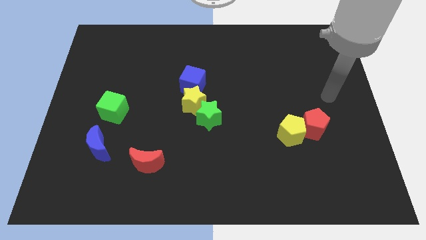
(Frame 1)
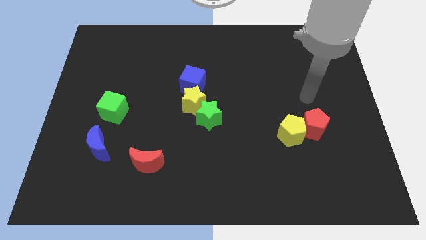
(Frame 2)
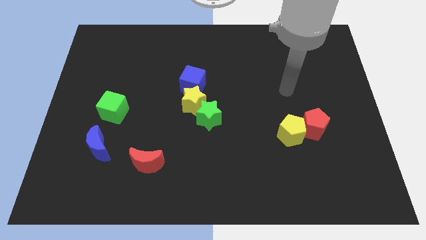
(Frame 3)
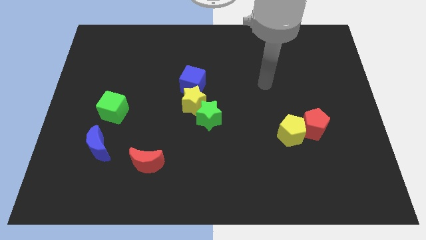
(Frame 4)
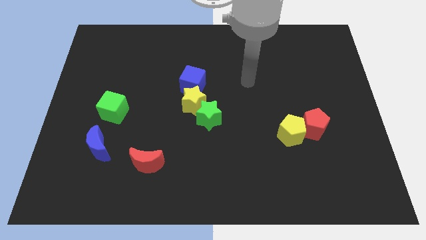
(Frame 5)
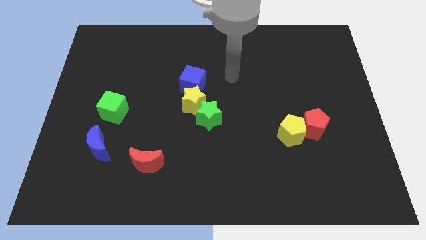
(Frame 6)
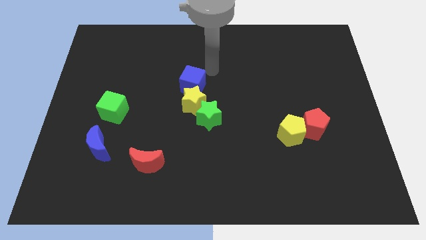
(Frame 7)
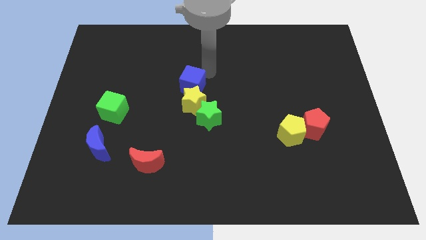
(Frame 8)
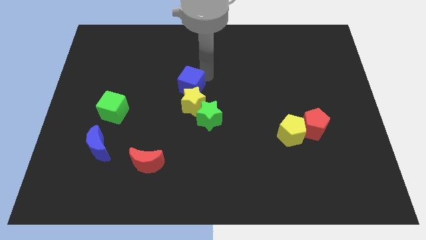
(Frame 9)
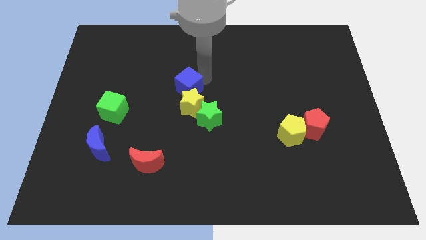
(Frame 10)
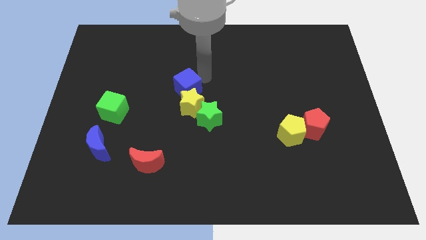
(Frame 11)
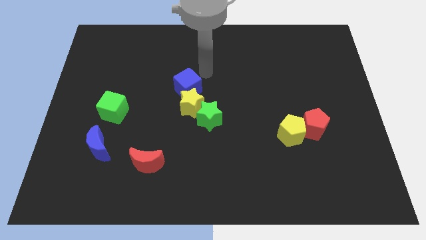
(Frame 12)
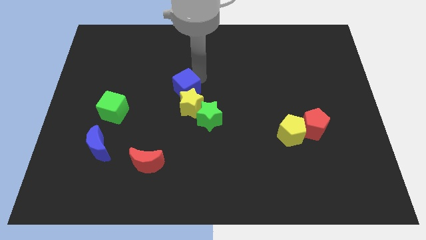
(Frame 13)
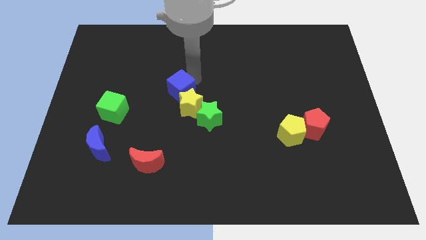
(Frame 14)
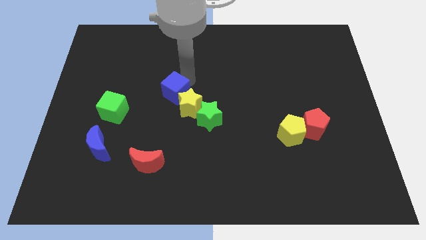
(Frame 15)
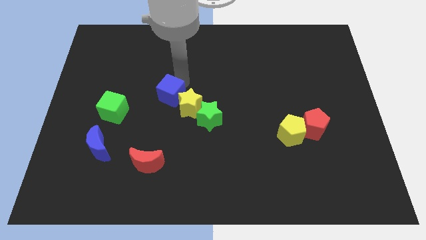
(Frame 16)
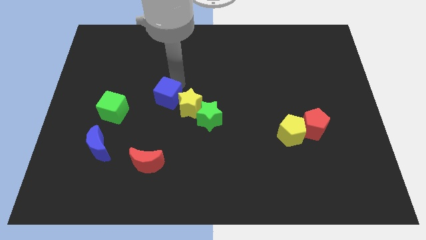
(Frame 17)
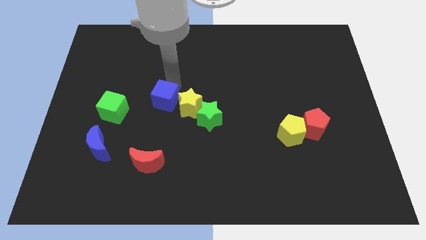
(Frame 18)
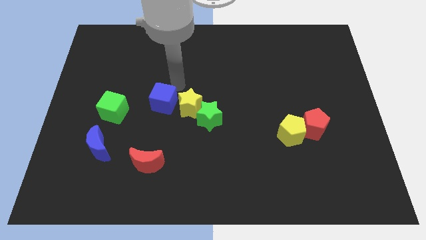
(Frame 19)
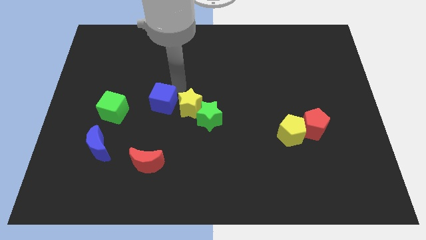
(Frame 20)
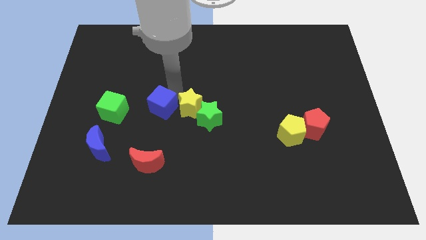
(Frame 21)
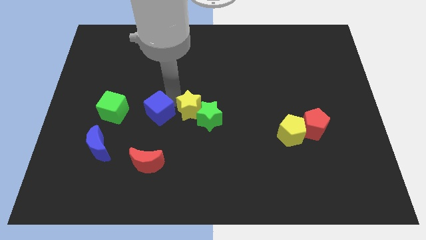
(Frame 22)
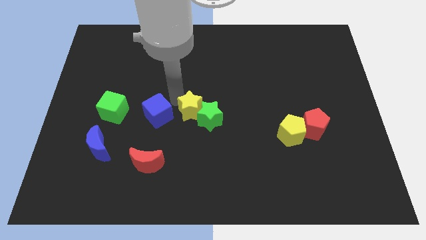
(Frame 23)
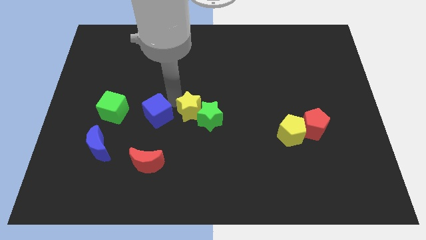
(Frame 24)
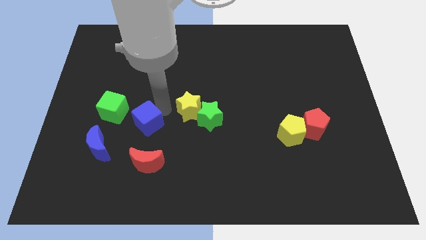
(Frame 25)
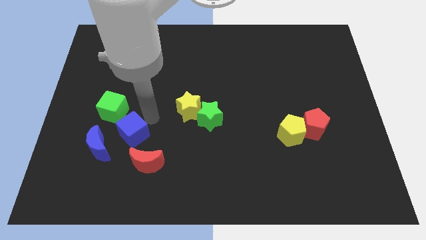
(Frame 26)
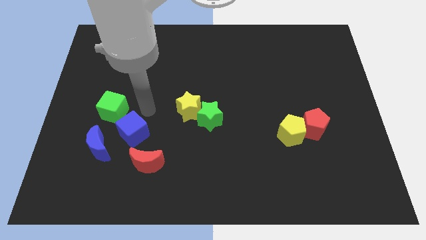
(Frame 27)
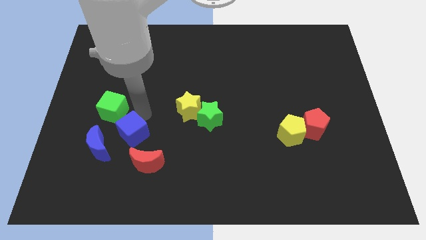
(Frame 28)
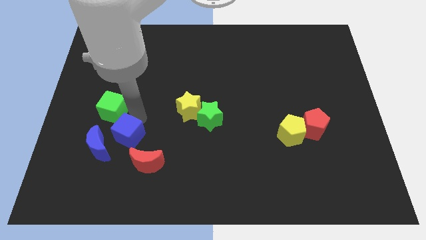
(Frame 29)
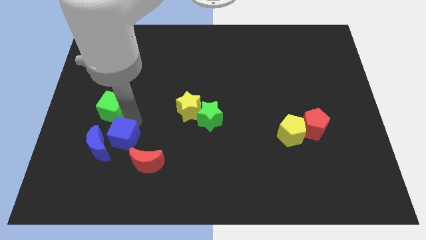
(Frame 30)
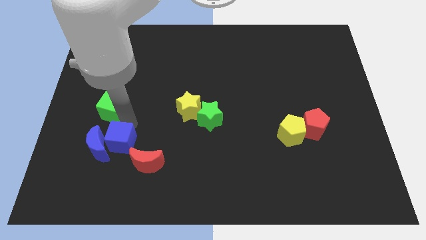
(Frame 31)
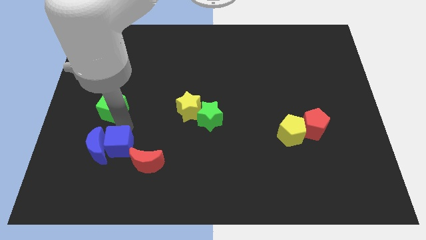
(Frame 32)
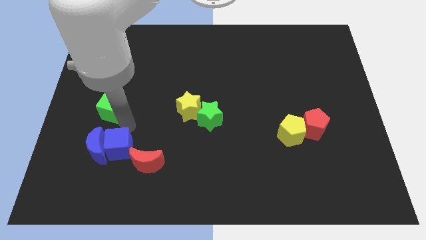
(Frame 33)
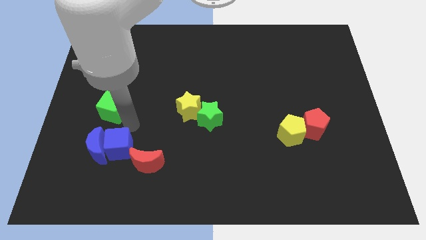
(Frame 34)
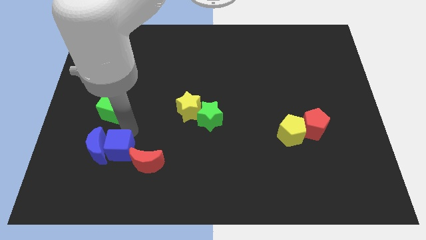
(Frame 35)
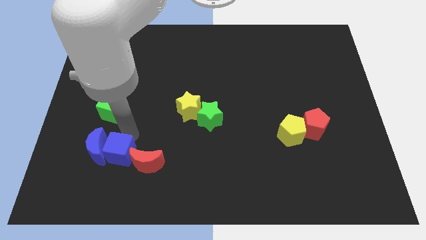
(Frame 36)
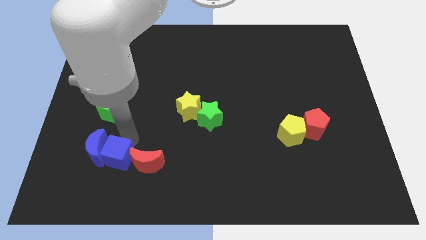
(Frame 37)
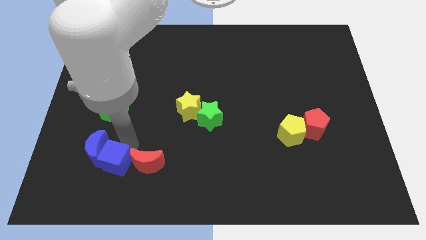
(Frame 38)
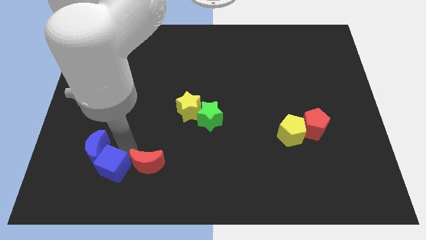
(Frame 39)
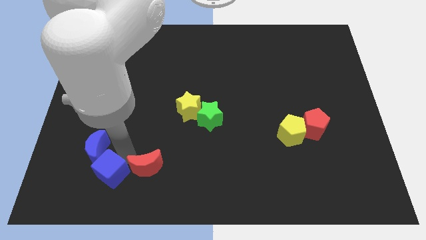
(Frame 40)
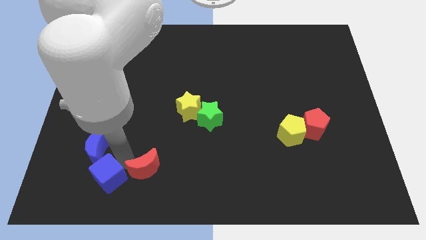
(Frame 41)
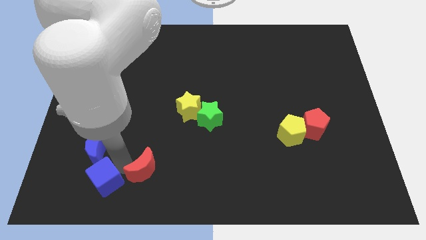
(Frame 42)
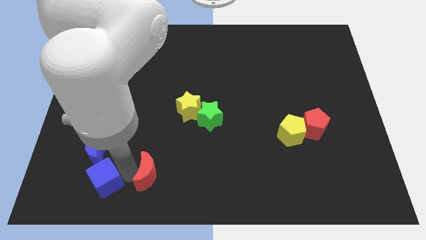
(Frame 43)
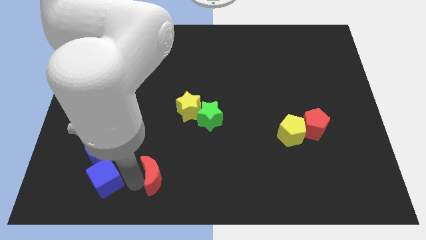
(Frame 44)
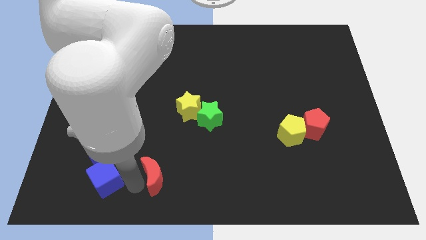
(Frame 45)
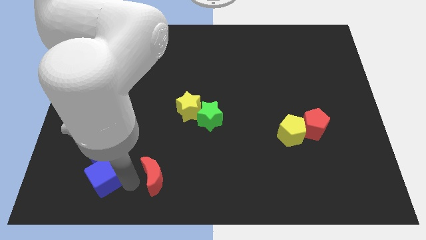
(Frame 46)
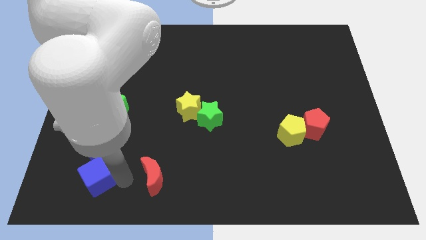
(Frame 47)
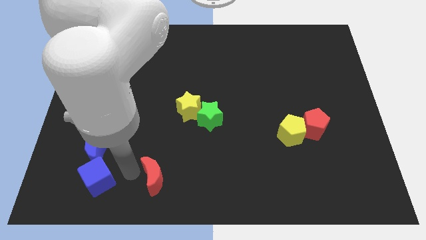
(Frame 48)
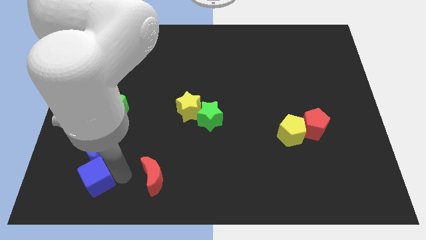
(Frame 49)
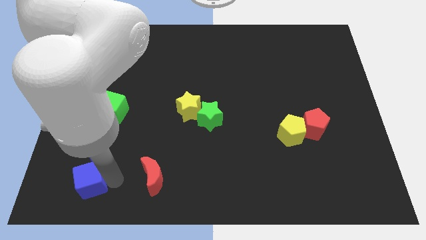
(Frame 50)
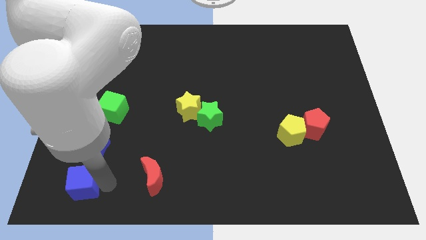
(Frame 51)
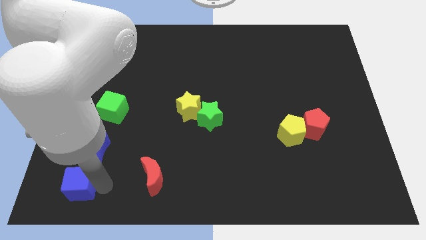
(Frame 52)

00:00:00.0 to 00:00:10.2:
move the blue cube to the bottom left of the board

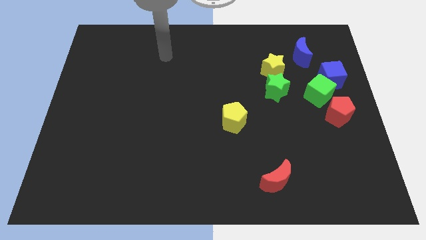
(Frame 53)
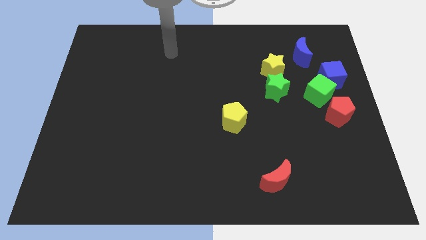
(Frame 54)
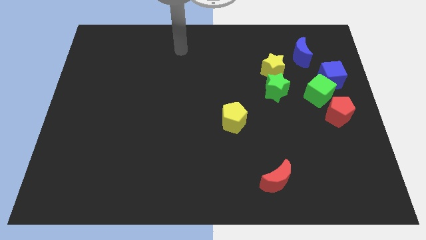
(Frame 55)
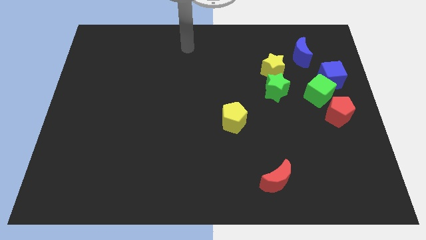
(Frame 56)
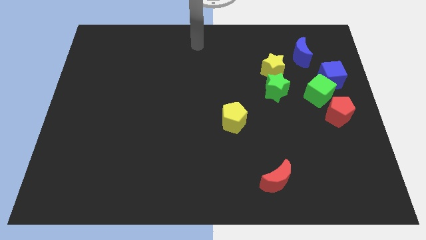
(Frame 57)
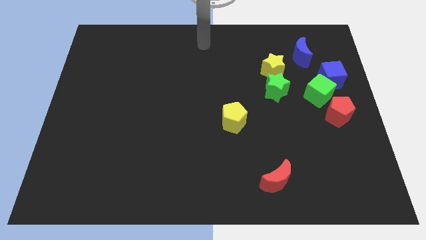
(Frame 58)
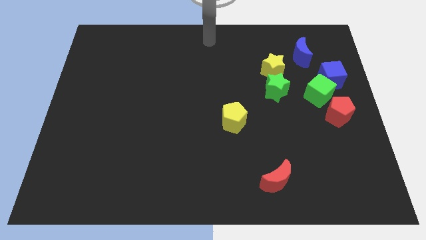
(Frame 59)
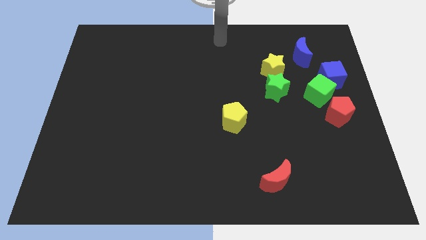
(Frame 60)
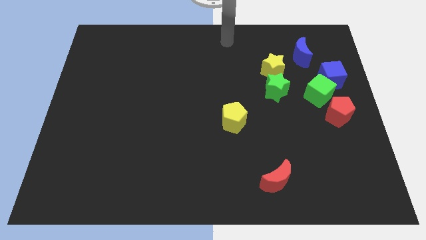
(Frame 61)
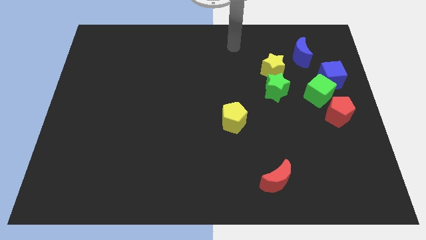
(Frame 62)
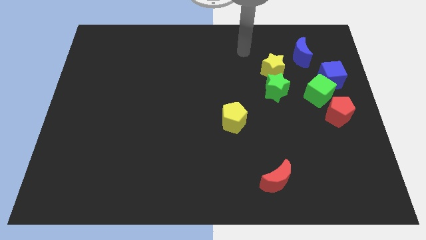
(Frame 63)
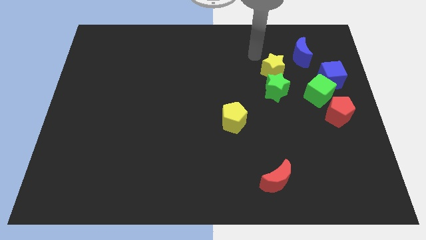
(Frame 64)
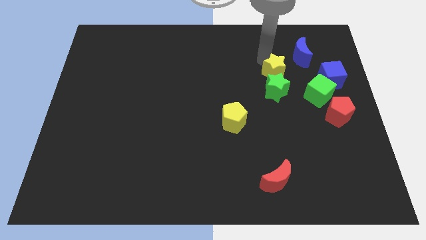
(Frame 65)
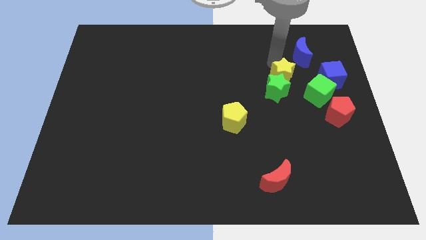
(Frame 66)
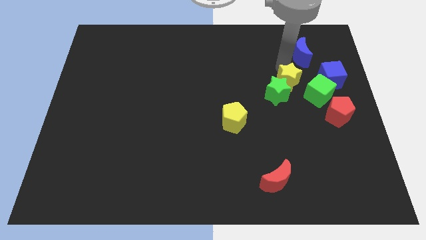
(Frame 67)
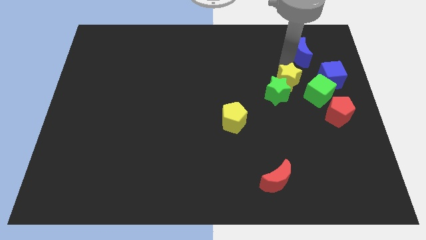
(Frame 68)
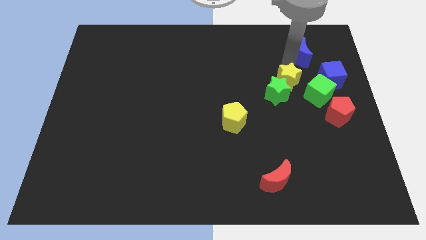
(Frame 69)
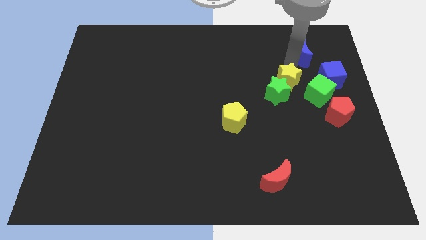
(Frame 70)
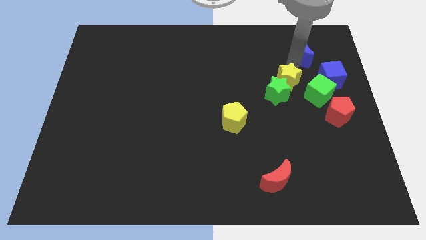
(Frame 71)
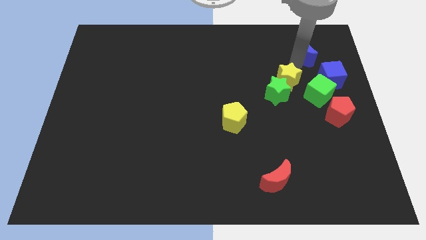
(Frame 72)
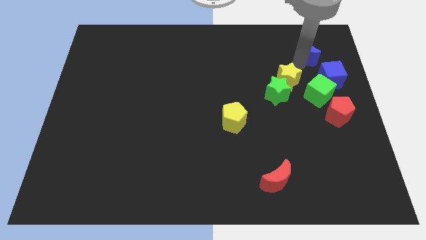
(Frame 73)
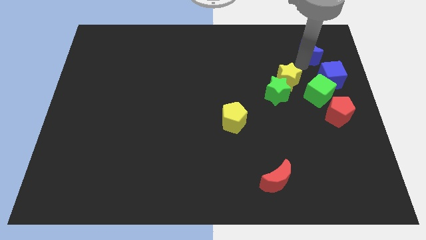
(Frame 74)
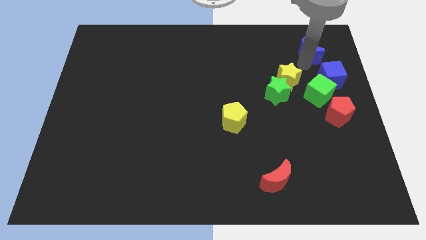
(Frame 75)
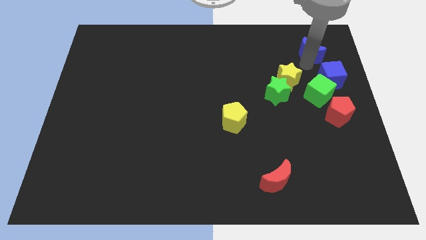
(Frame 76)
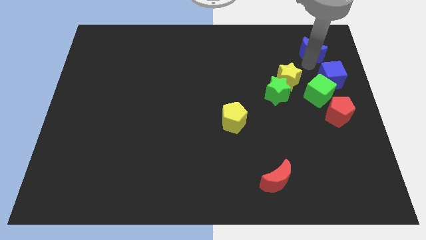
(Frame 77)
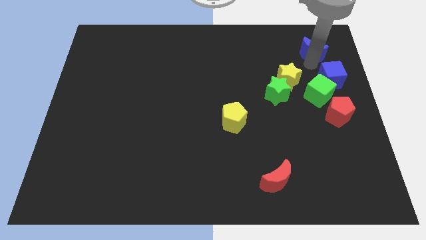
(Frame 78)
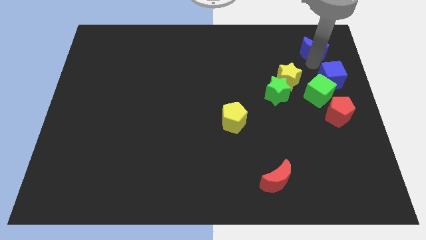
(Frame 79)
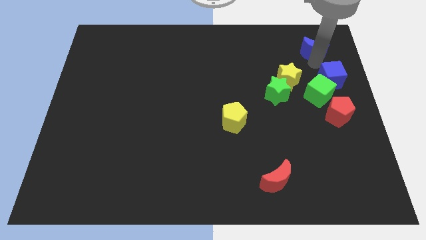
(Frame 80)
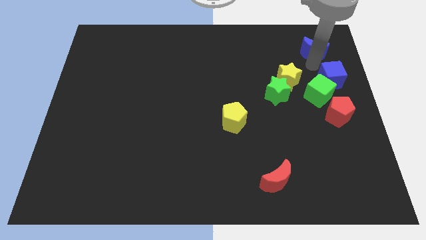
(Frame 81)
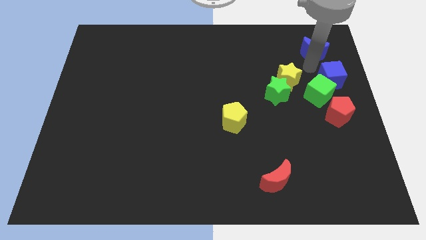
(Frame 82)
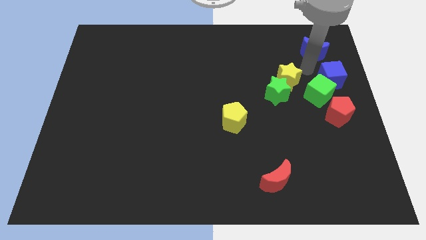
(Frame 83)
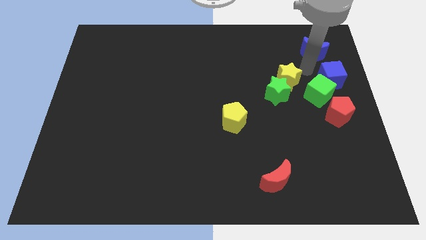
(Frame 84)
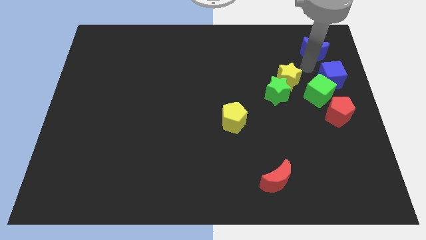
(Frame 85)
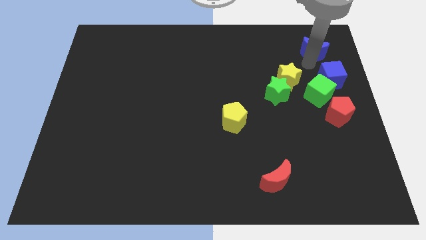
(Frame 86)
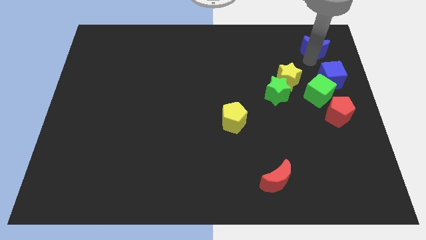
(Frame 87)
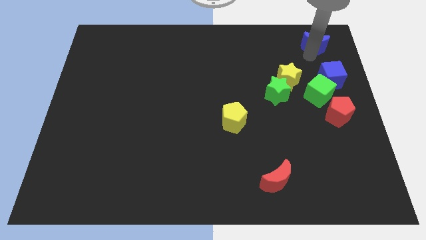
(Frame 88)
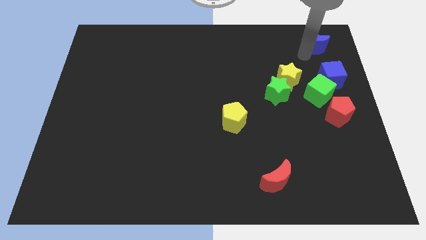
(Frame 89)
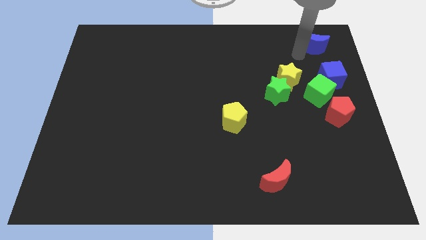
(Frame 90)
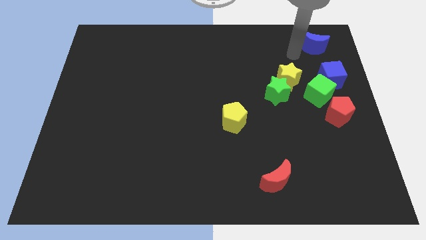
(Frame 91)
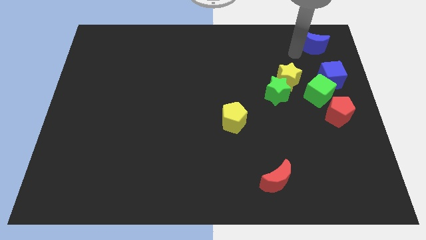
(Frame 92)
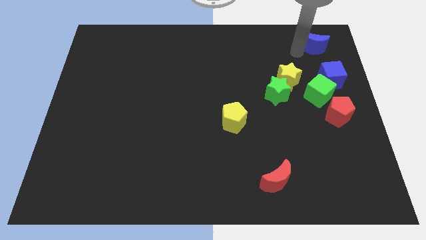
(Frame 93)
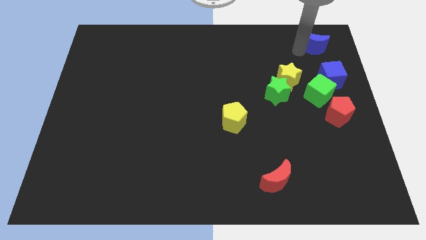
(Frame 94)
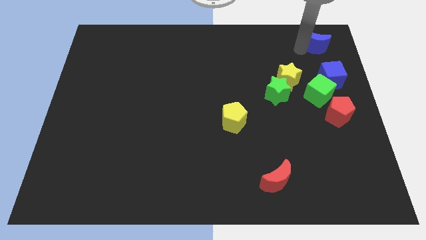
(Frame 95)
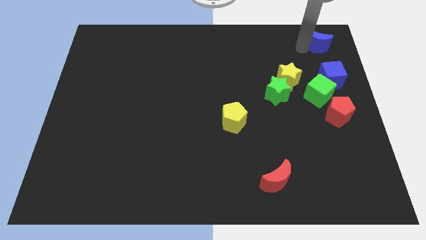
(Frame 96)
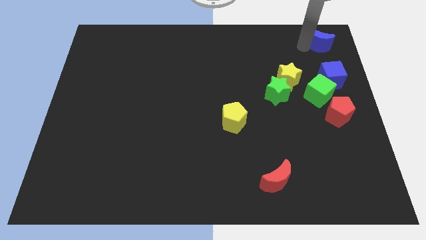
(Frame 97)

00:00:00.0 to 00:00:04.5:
put the blue moon to the top right corner
